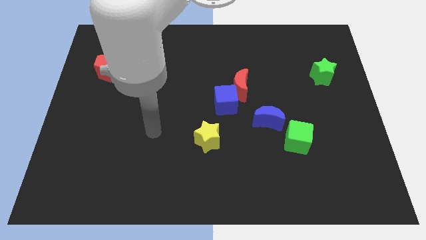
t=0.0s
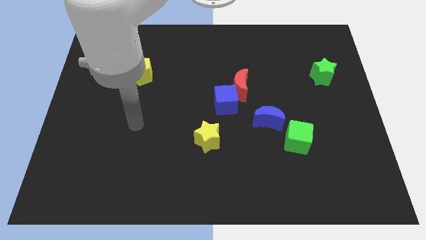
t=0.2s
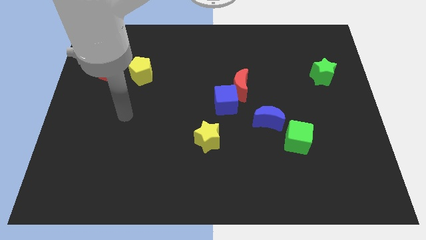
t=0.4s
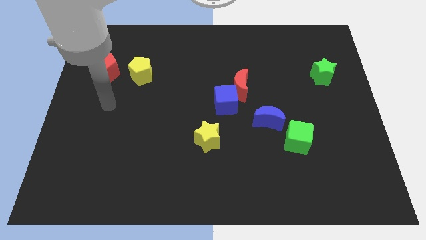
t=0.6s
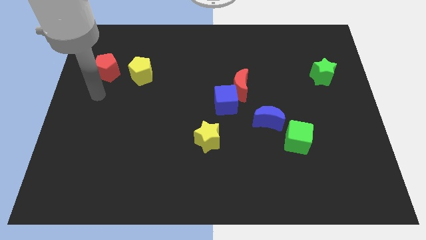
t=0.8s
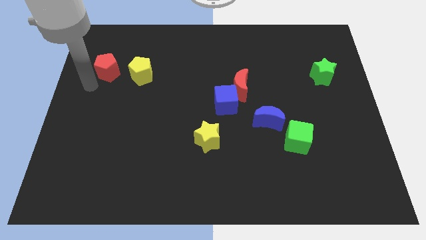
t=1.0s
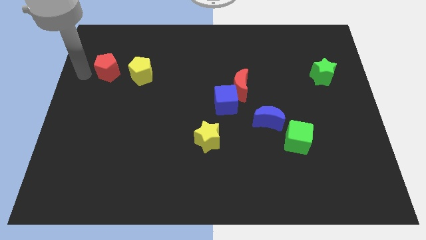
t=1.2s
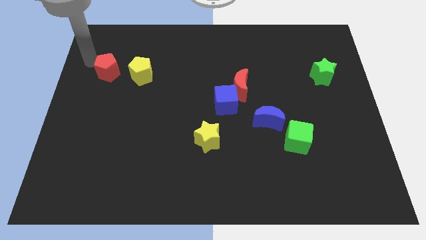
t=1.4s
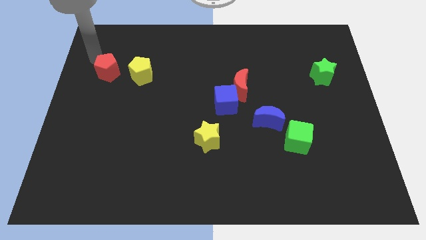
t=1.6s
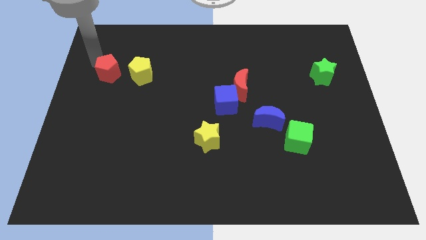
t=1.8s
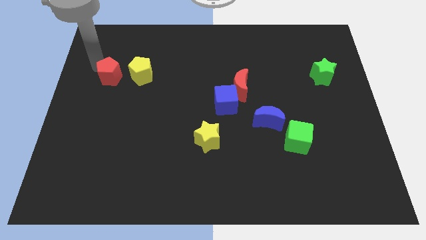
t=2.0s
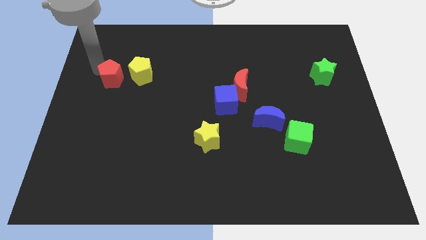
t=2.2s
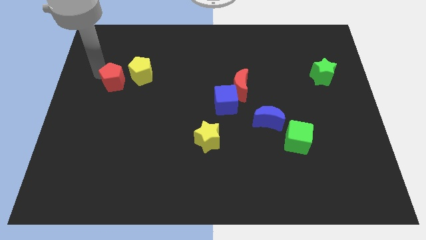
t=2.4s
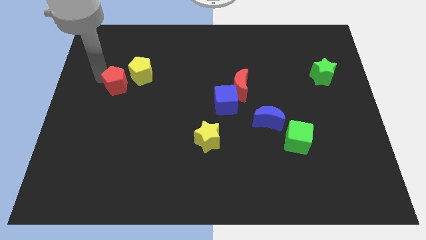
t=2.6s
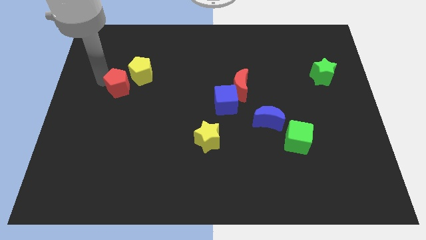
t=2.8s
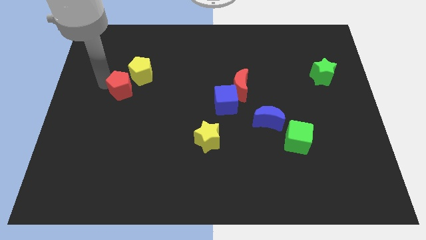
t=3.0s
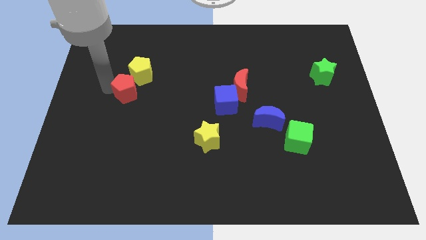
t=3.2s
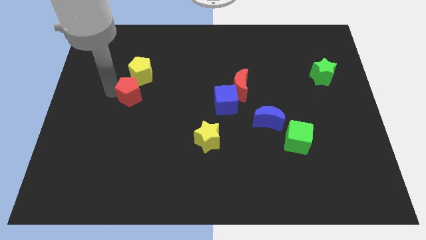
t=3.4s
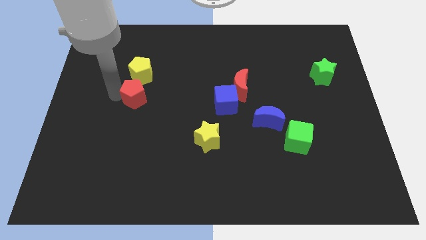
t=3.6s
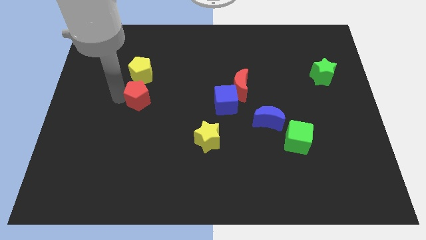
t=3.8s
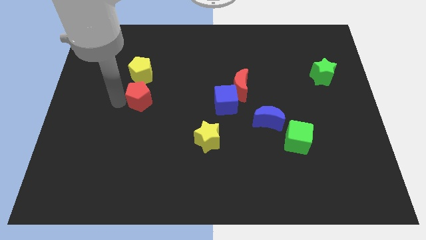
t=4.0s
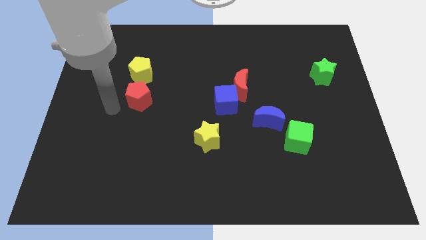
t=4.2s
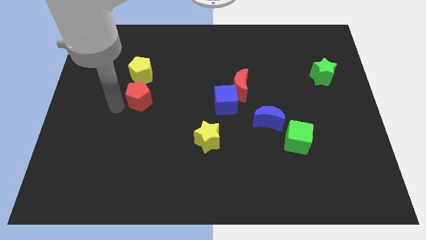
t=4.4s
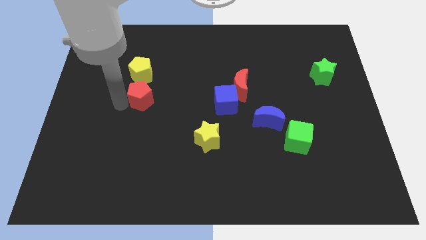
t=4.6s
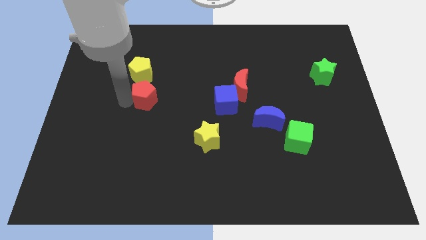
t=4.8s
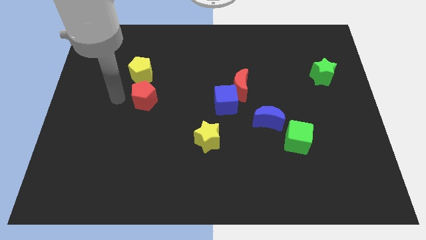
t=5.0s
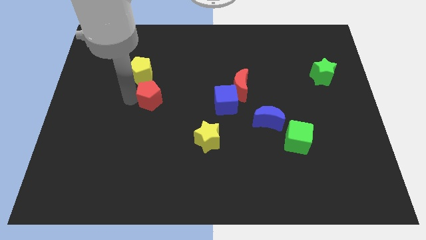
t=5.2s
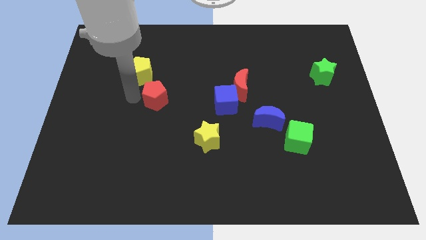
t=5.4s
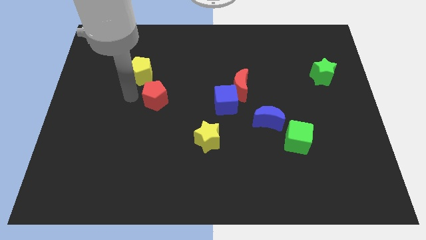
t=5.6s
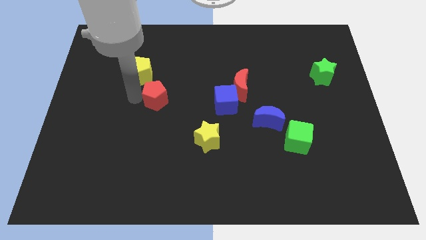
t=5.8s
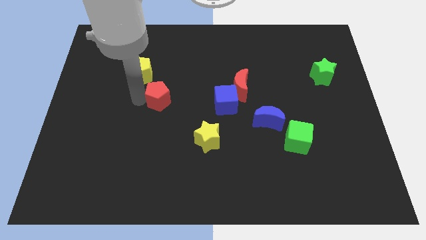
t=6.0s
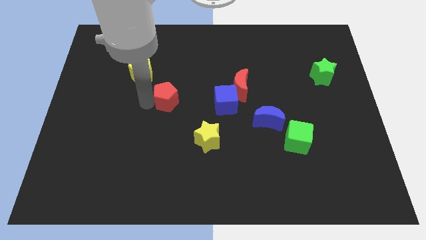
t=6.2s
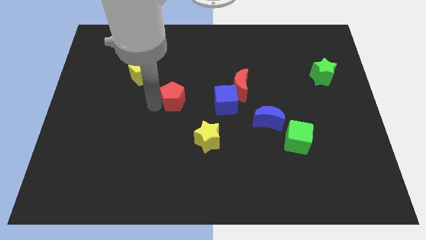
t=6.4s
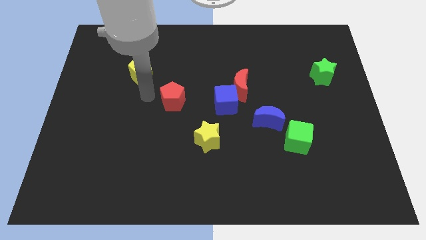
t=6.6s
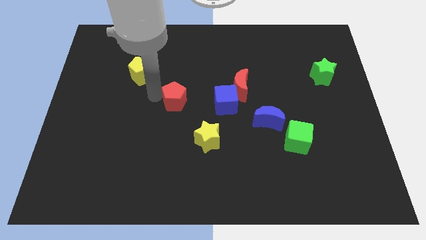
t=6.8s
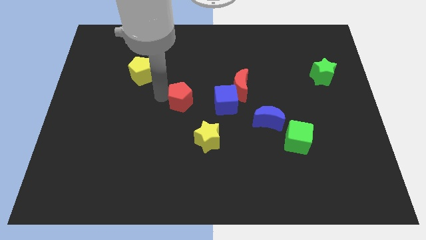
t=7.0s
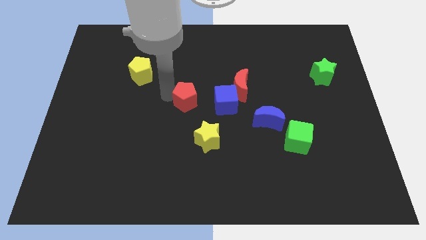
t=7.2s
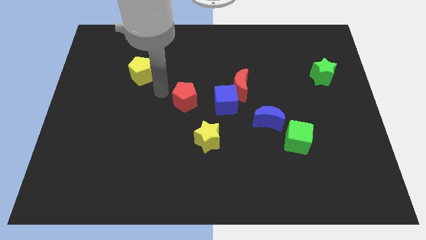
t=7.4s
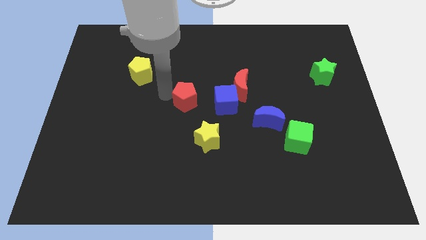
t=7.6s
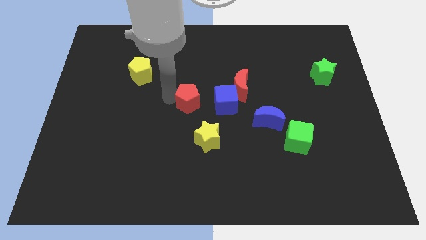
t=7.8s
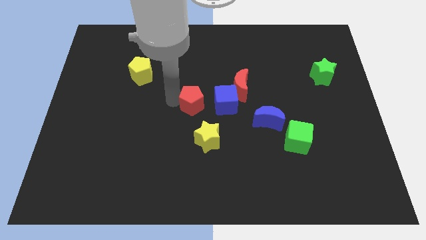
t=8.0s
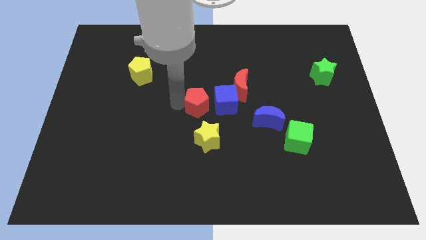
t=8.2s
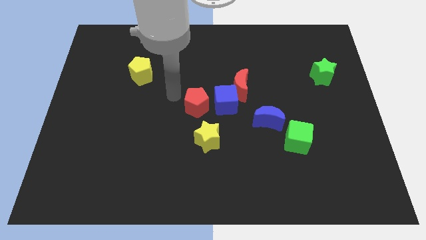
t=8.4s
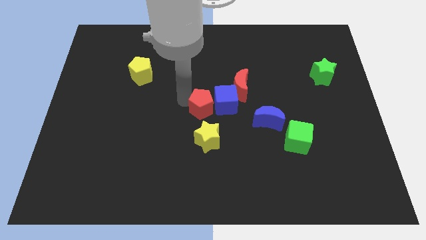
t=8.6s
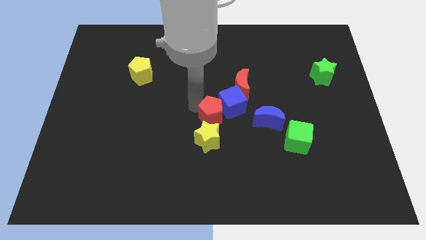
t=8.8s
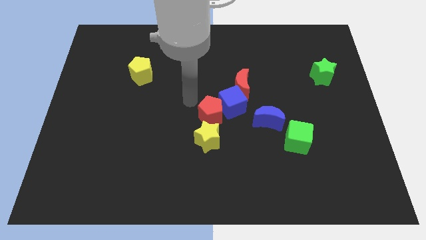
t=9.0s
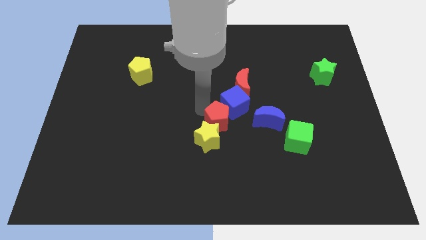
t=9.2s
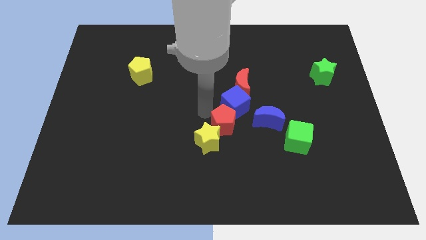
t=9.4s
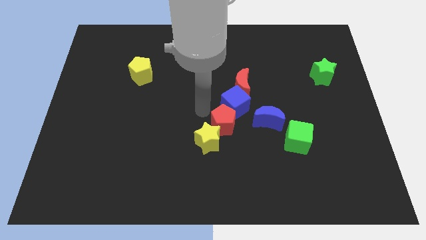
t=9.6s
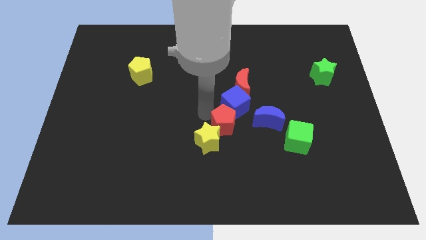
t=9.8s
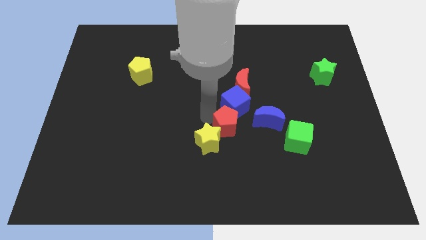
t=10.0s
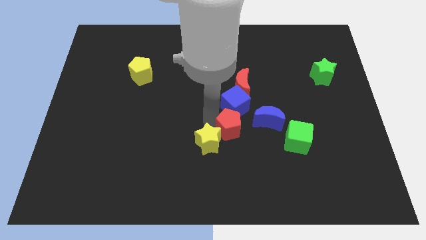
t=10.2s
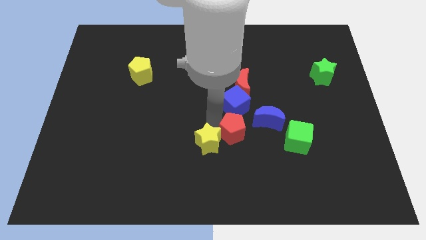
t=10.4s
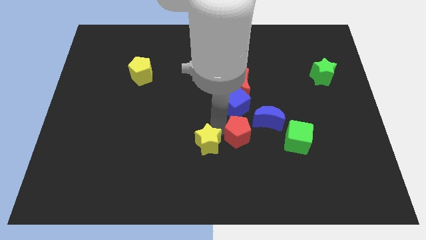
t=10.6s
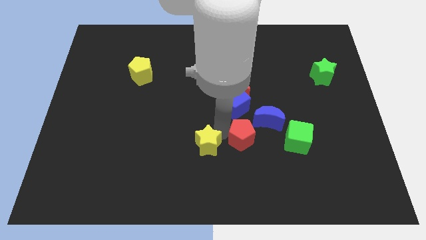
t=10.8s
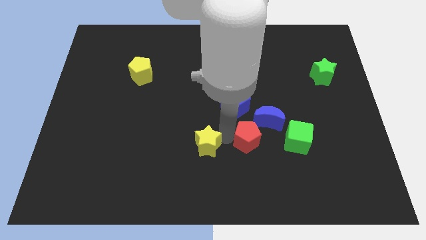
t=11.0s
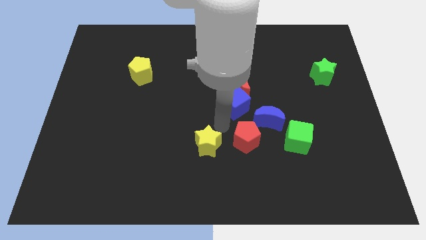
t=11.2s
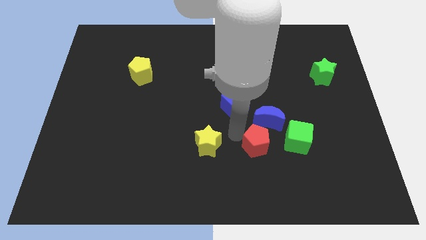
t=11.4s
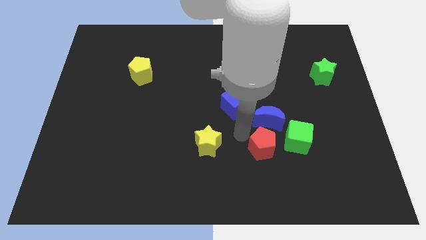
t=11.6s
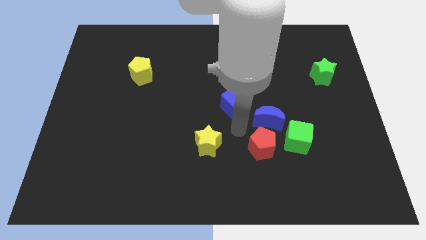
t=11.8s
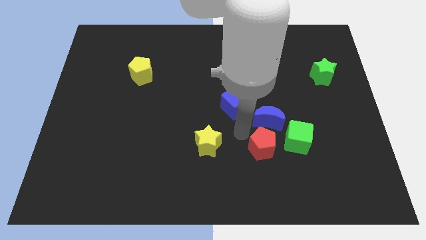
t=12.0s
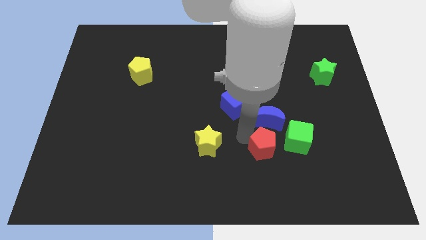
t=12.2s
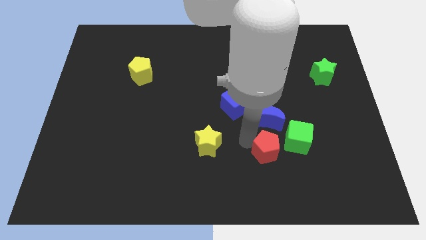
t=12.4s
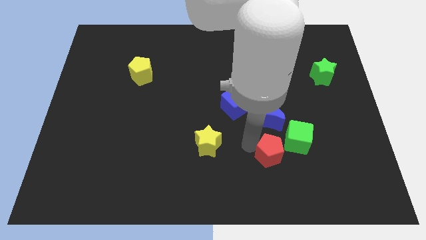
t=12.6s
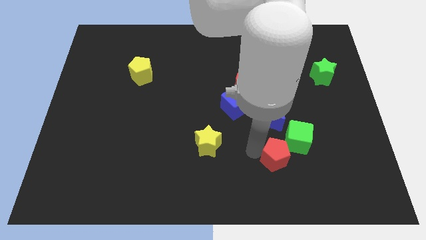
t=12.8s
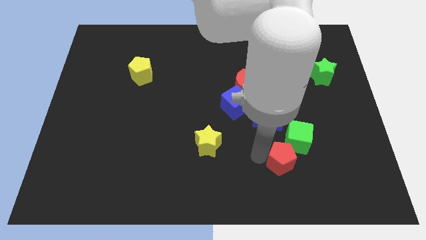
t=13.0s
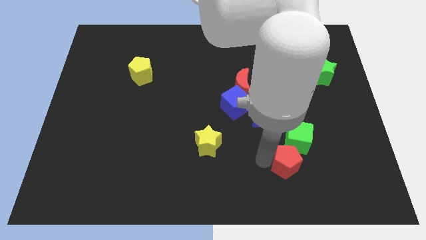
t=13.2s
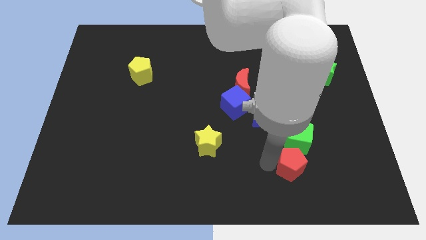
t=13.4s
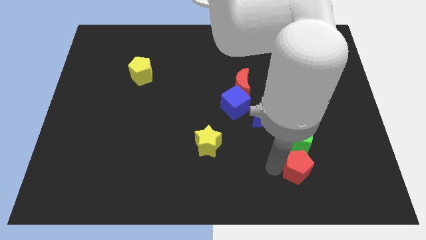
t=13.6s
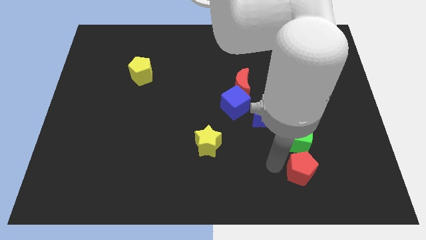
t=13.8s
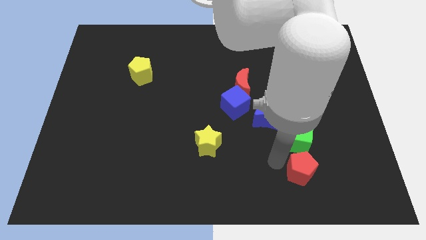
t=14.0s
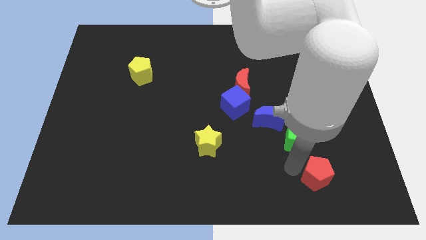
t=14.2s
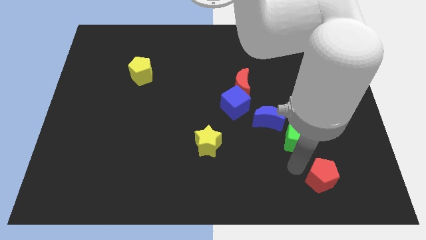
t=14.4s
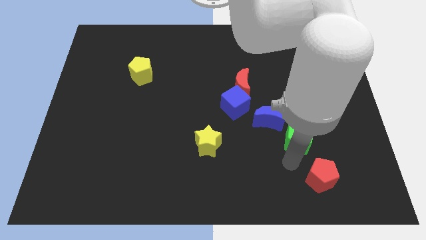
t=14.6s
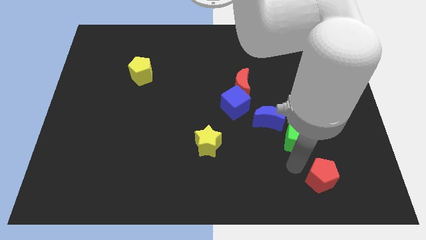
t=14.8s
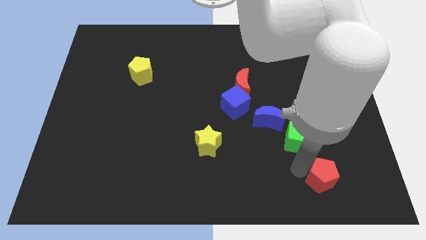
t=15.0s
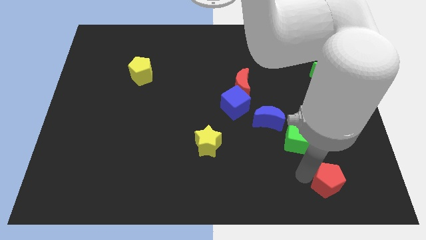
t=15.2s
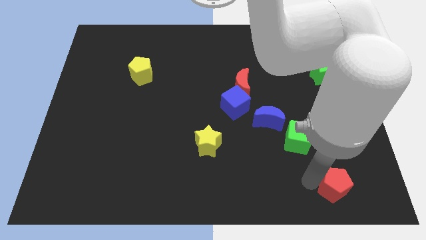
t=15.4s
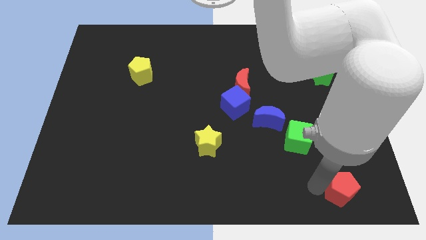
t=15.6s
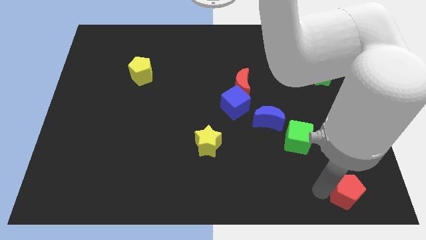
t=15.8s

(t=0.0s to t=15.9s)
push the red pentagon to the bottom right
